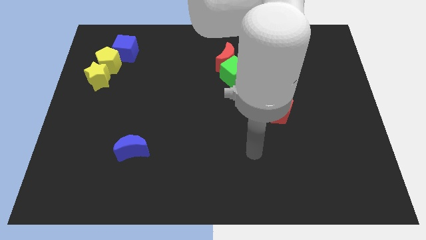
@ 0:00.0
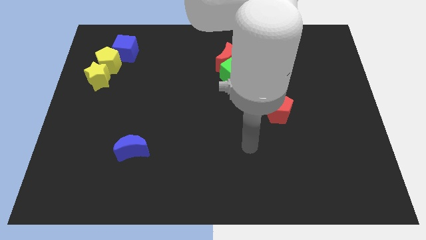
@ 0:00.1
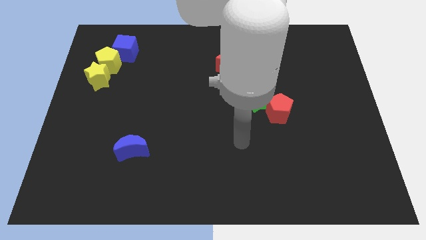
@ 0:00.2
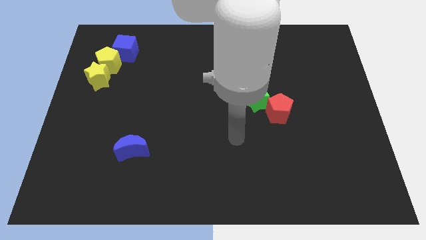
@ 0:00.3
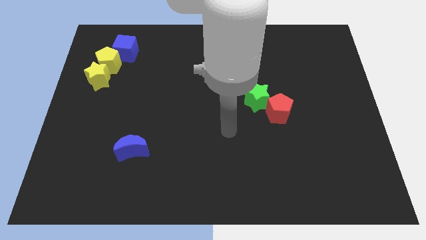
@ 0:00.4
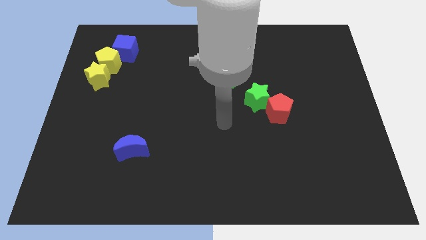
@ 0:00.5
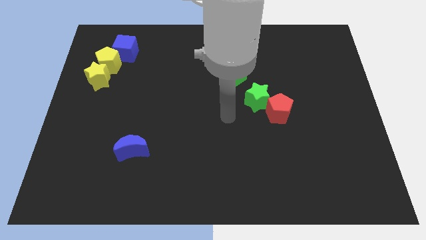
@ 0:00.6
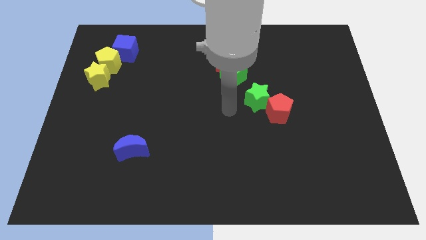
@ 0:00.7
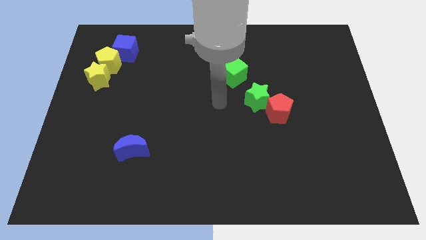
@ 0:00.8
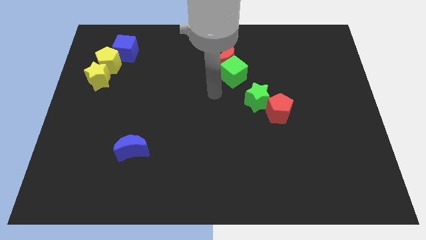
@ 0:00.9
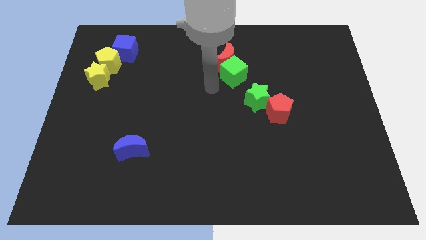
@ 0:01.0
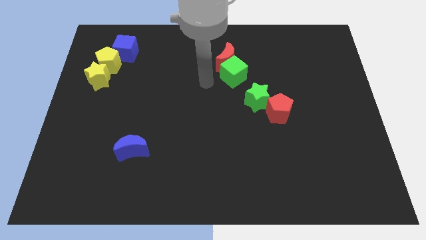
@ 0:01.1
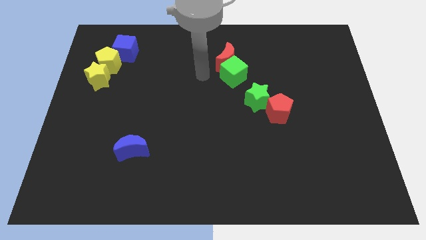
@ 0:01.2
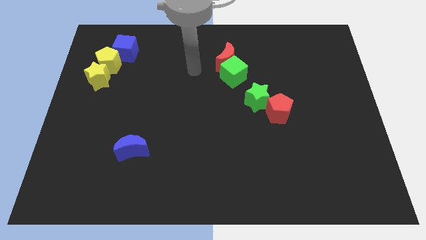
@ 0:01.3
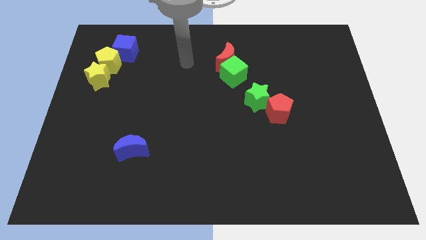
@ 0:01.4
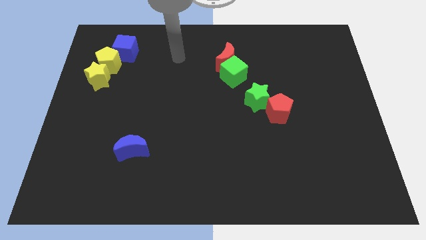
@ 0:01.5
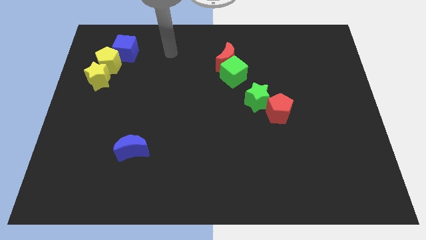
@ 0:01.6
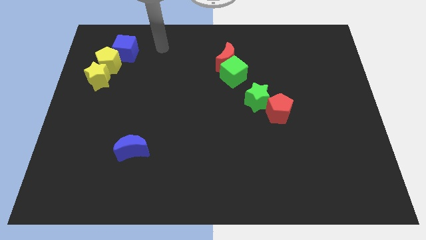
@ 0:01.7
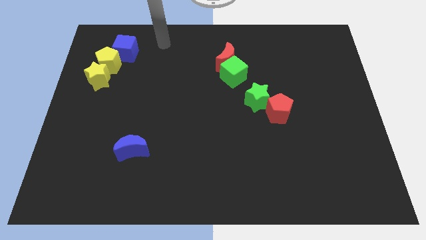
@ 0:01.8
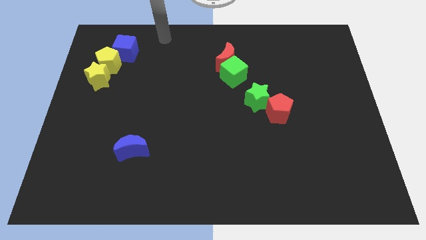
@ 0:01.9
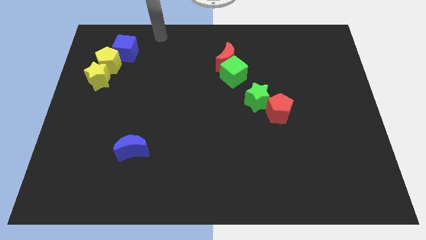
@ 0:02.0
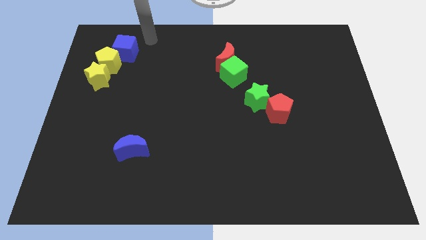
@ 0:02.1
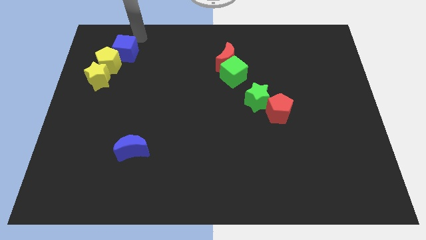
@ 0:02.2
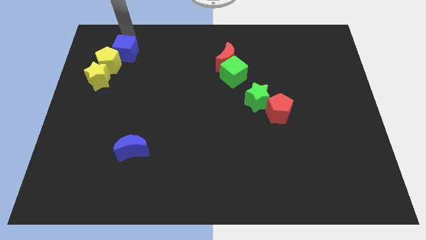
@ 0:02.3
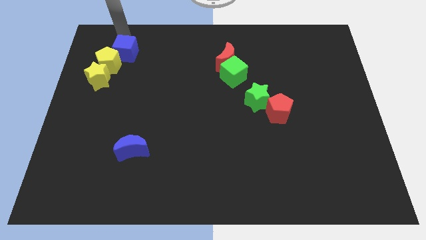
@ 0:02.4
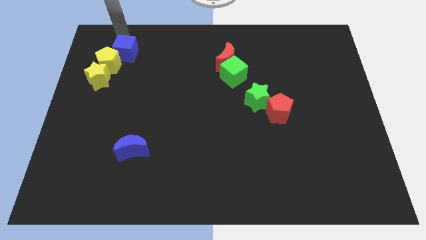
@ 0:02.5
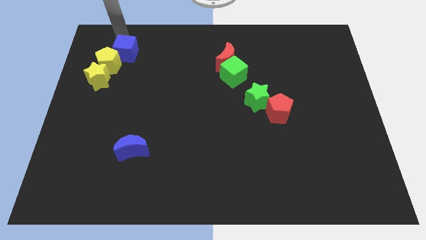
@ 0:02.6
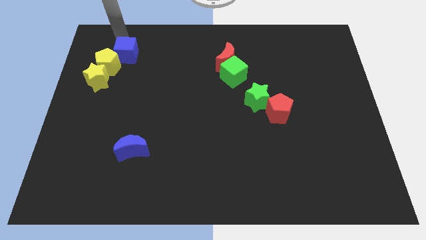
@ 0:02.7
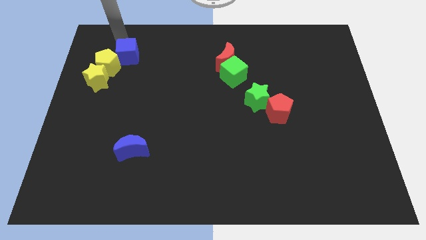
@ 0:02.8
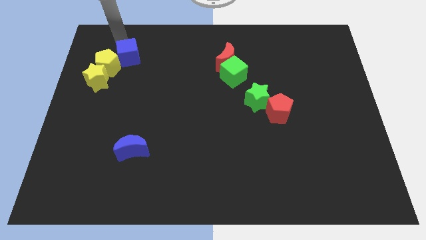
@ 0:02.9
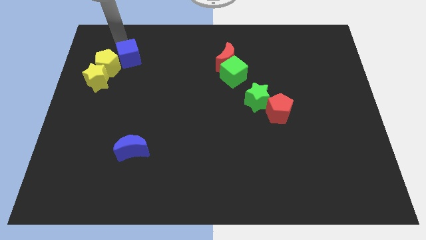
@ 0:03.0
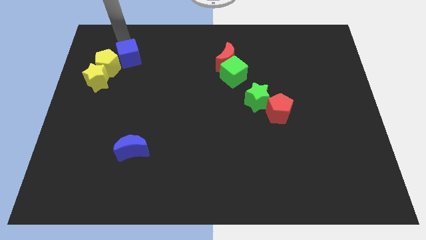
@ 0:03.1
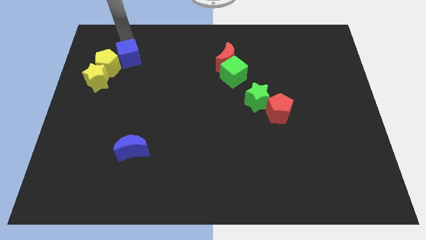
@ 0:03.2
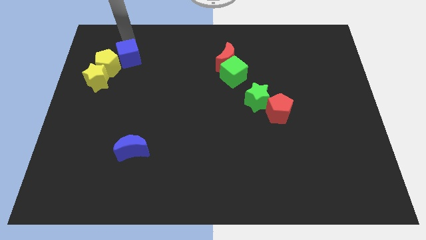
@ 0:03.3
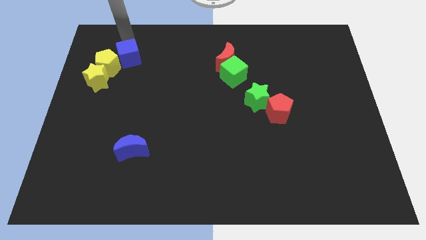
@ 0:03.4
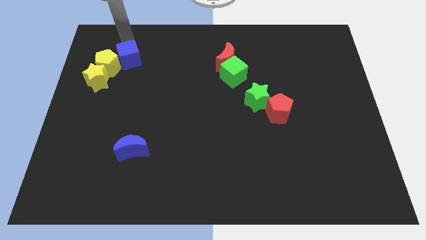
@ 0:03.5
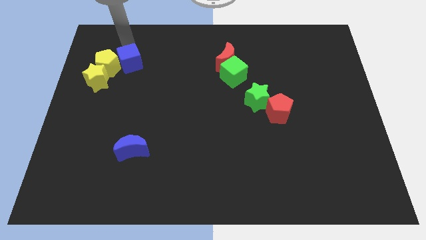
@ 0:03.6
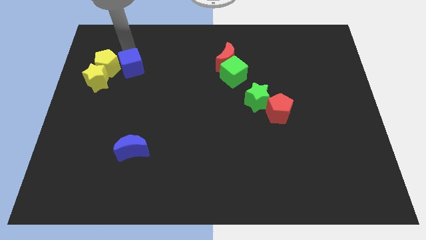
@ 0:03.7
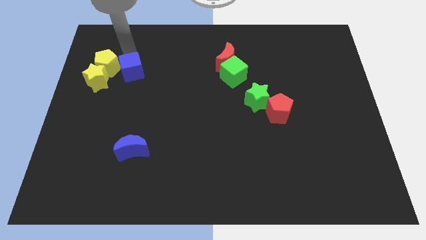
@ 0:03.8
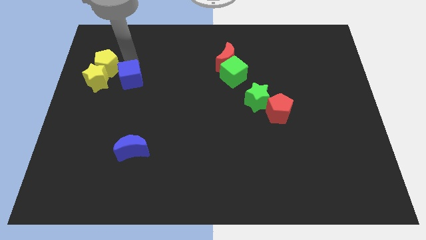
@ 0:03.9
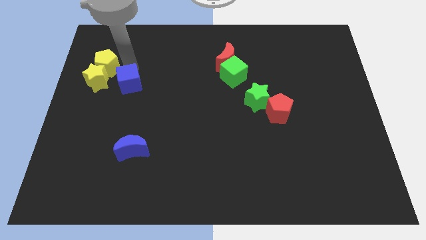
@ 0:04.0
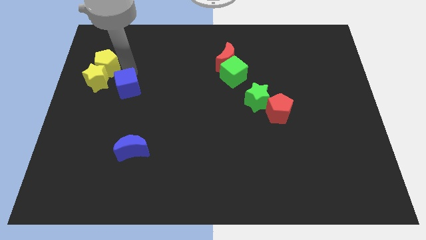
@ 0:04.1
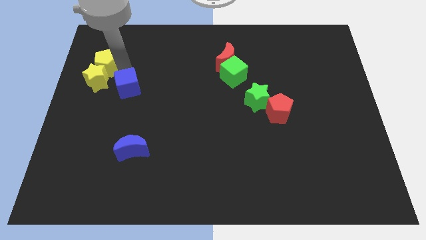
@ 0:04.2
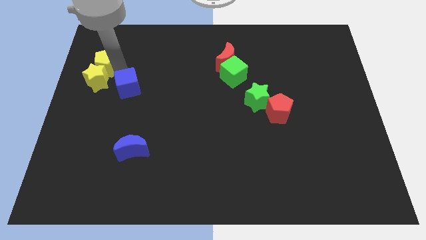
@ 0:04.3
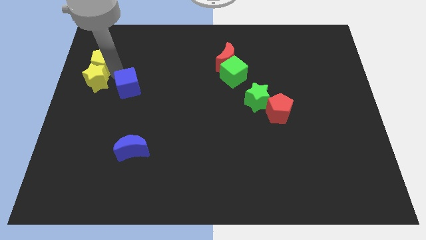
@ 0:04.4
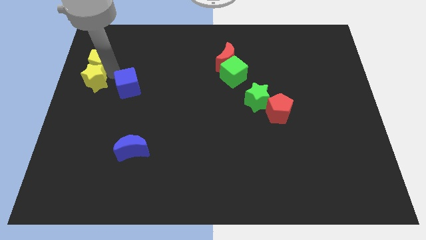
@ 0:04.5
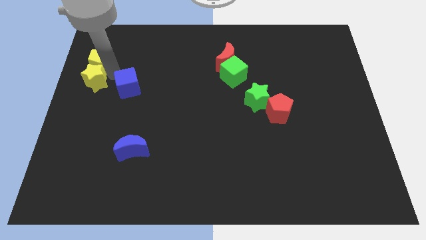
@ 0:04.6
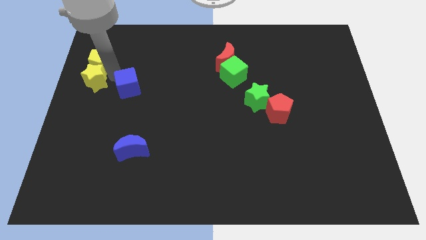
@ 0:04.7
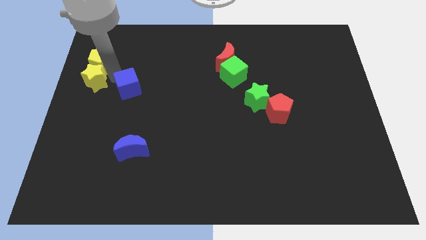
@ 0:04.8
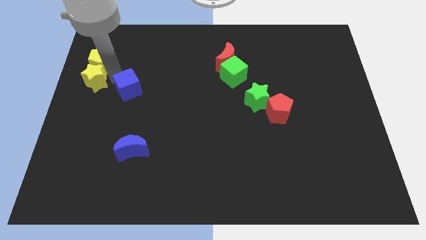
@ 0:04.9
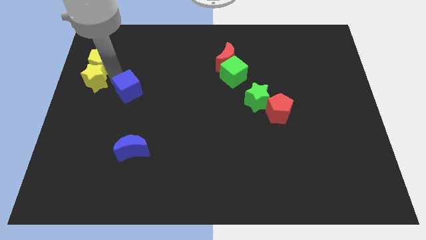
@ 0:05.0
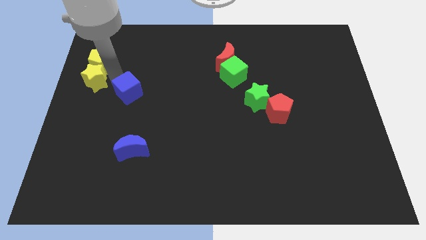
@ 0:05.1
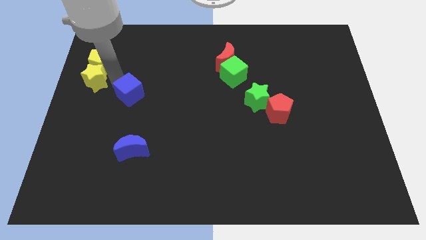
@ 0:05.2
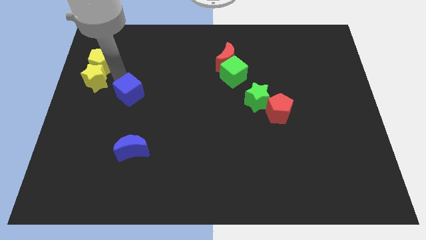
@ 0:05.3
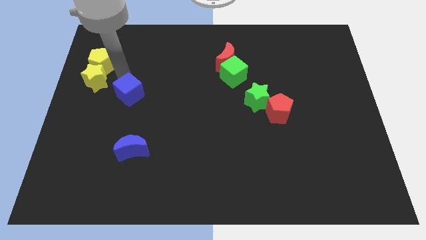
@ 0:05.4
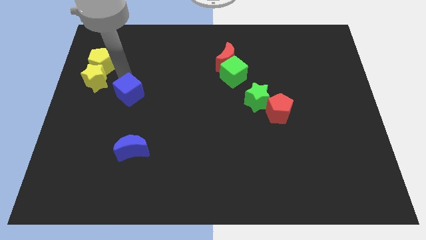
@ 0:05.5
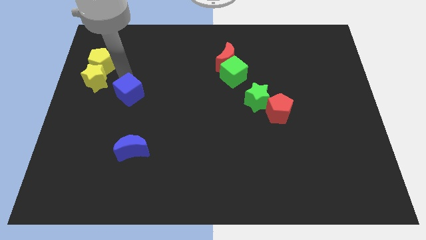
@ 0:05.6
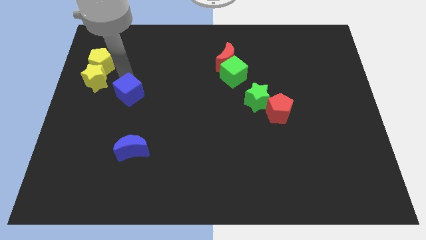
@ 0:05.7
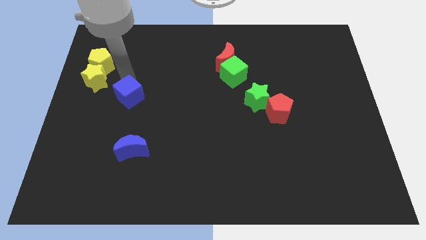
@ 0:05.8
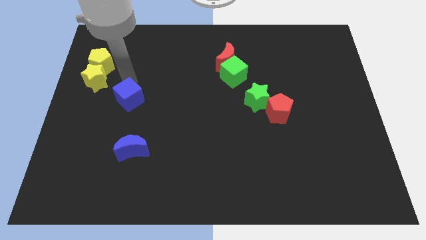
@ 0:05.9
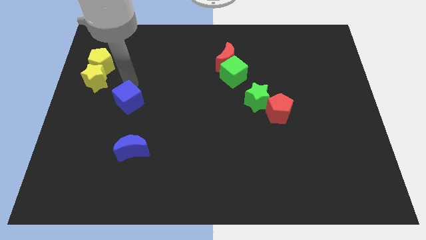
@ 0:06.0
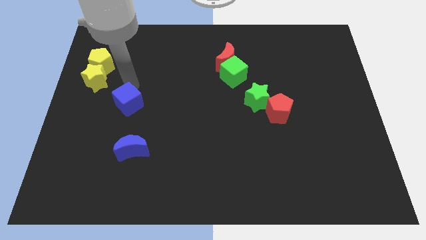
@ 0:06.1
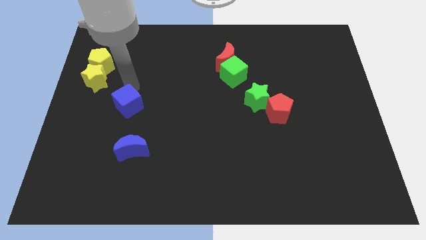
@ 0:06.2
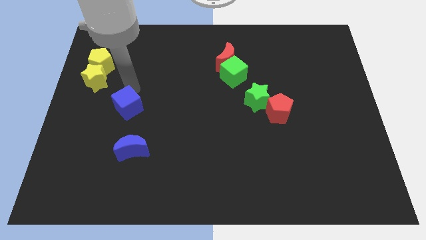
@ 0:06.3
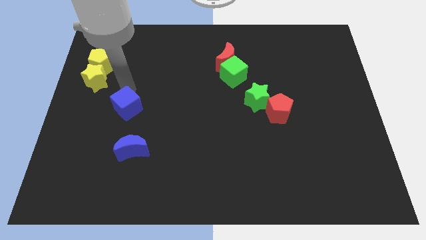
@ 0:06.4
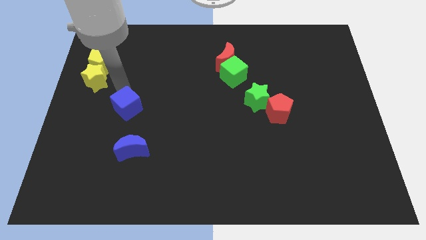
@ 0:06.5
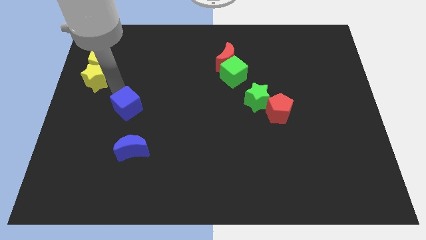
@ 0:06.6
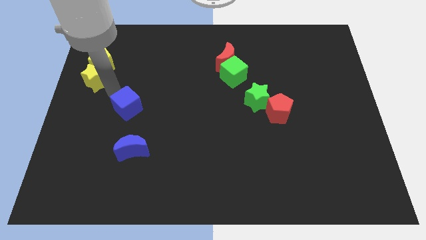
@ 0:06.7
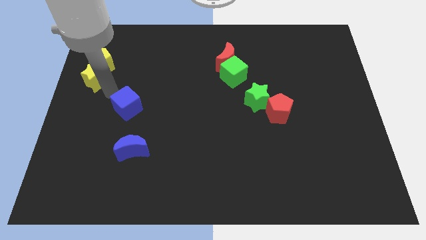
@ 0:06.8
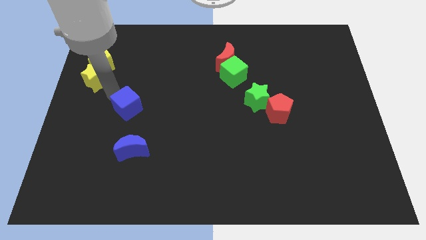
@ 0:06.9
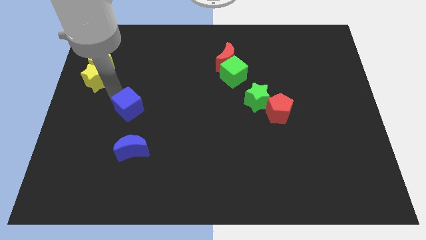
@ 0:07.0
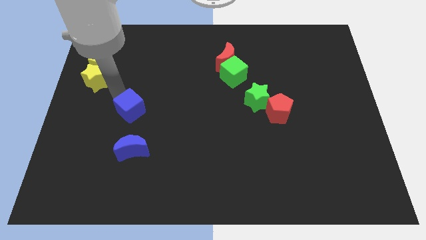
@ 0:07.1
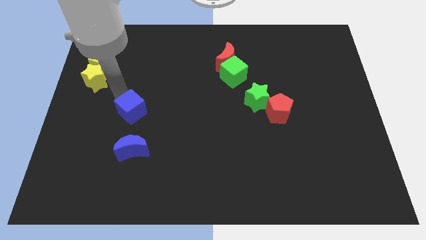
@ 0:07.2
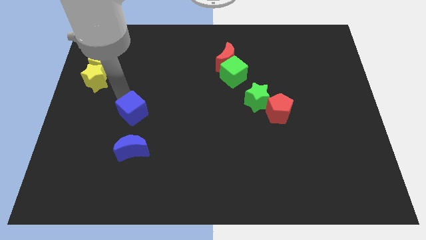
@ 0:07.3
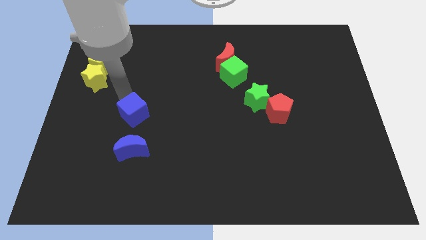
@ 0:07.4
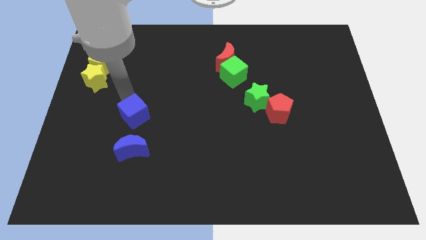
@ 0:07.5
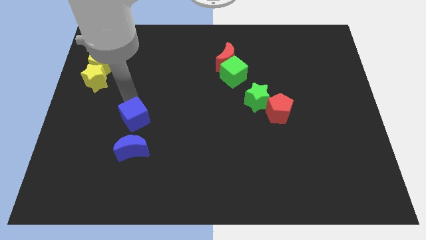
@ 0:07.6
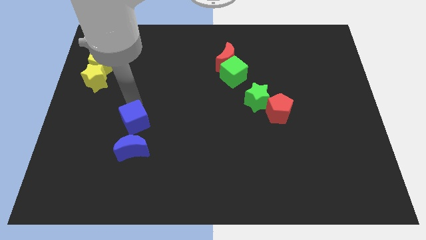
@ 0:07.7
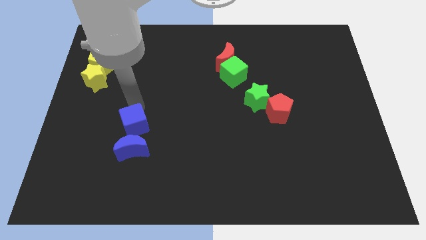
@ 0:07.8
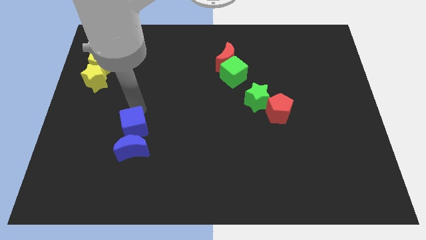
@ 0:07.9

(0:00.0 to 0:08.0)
move the blue cube close to the blue moon
